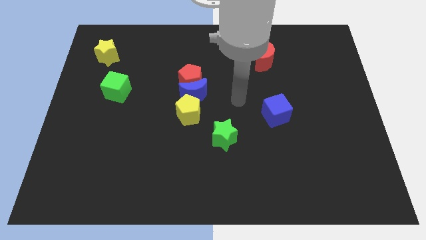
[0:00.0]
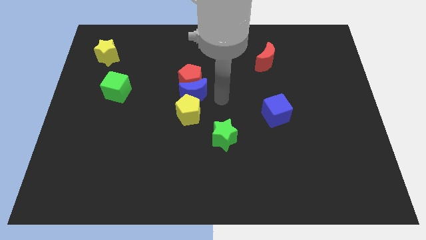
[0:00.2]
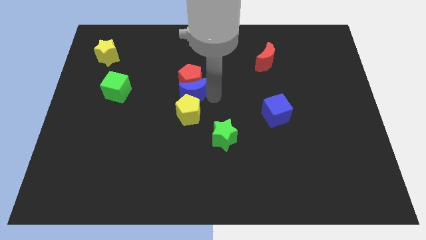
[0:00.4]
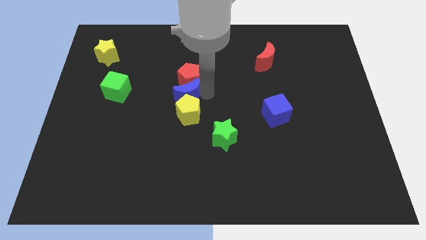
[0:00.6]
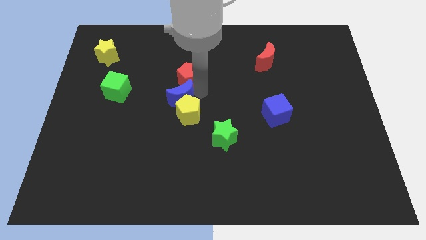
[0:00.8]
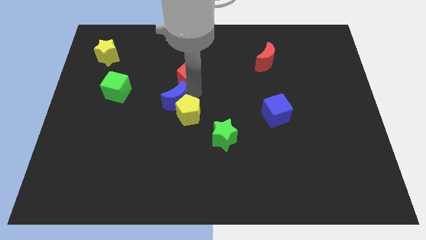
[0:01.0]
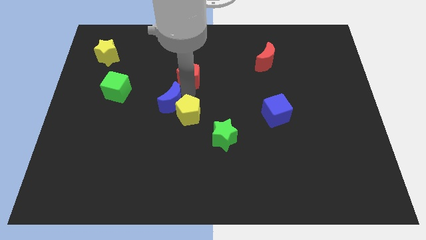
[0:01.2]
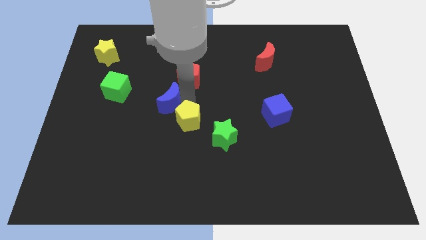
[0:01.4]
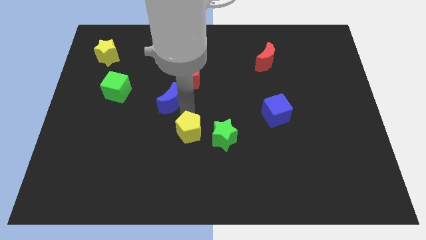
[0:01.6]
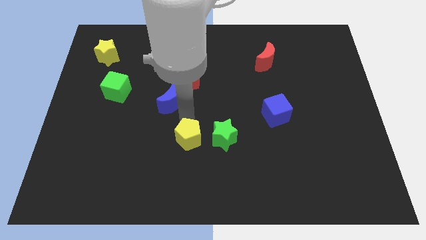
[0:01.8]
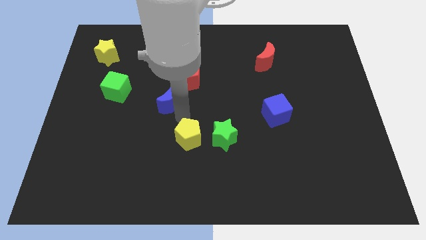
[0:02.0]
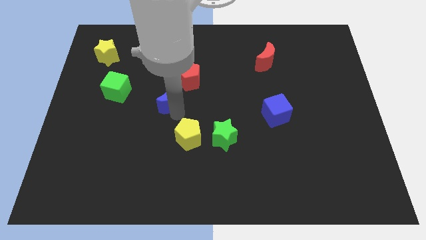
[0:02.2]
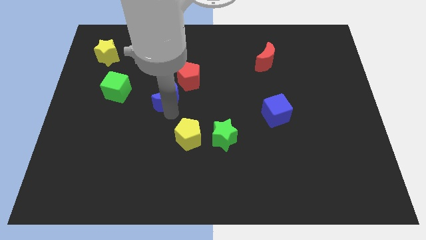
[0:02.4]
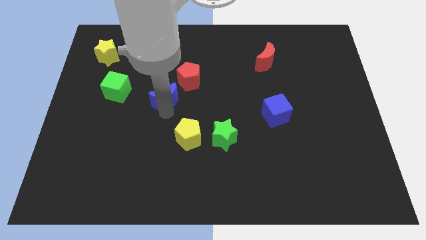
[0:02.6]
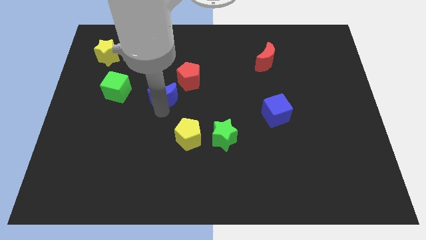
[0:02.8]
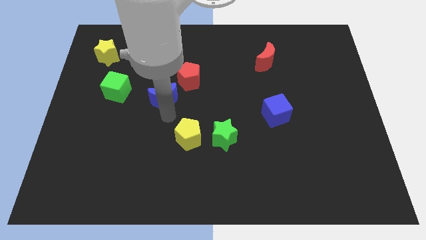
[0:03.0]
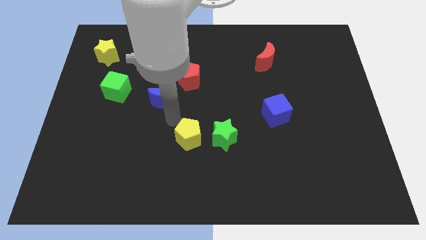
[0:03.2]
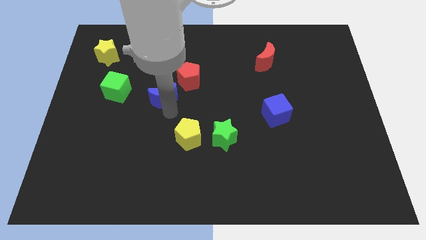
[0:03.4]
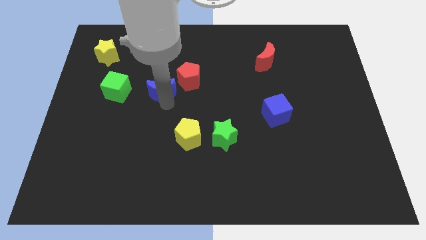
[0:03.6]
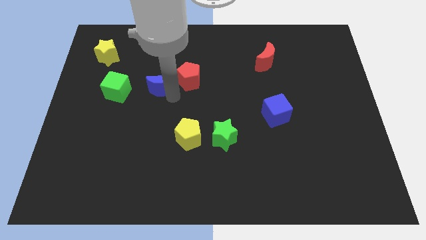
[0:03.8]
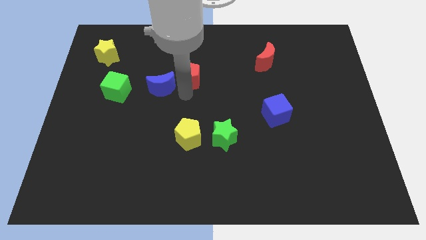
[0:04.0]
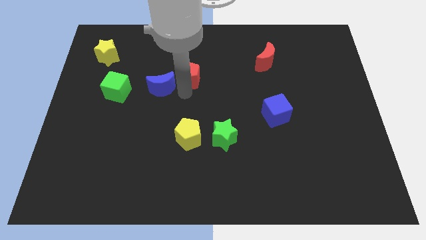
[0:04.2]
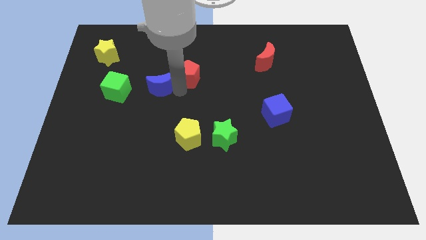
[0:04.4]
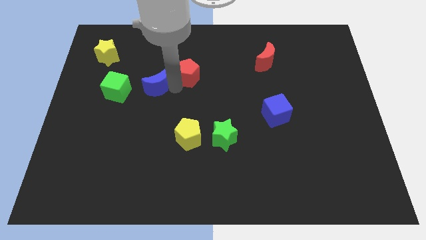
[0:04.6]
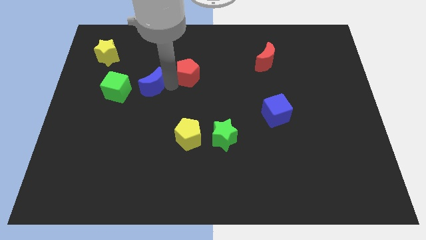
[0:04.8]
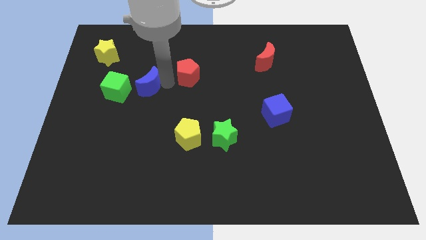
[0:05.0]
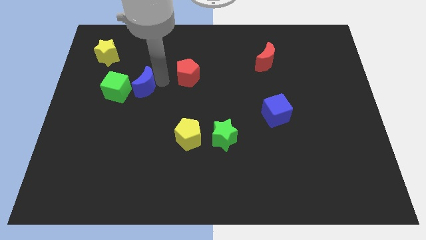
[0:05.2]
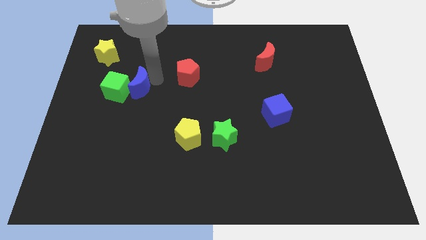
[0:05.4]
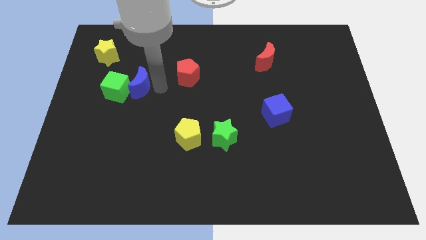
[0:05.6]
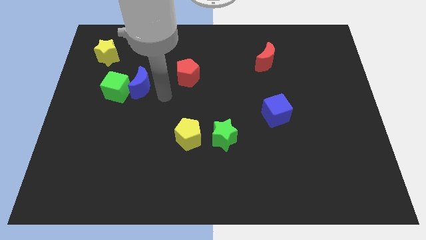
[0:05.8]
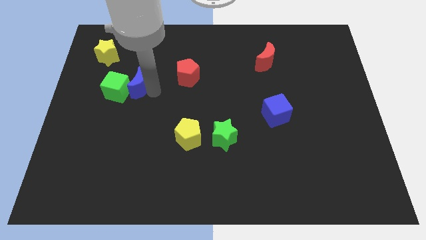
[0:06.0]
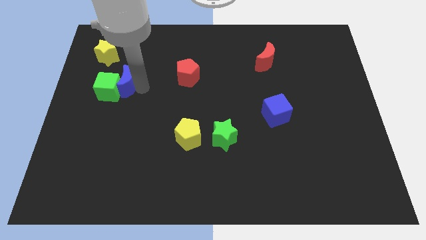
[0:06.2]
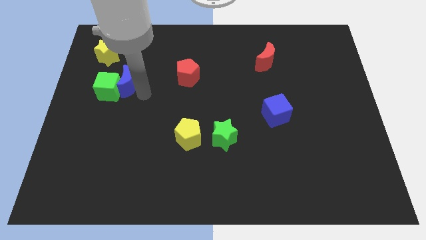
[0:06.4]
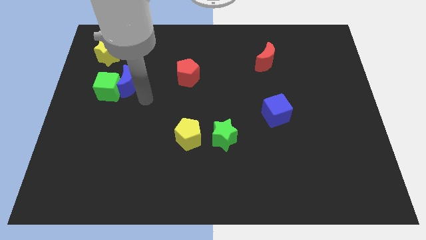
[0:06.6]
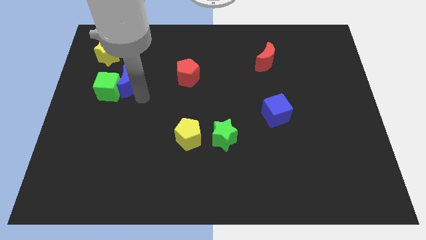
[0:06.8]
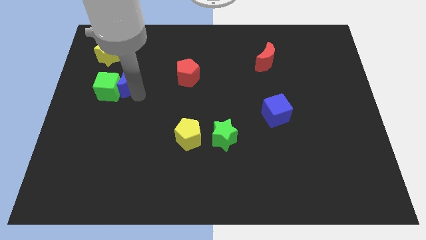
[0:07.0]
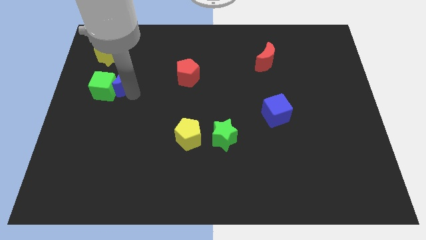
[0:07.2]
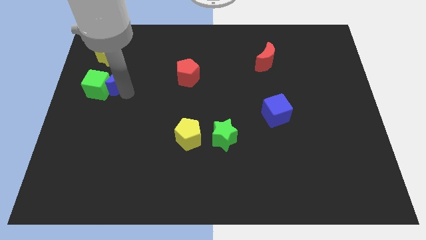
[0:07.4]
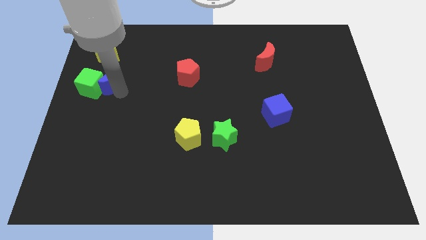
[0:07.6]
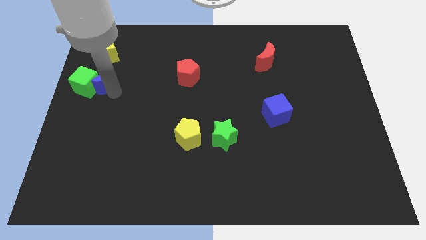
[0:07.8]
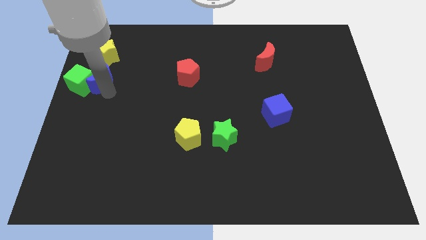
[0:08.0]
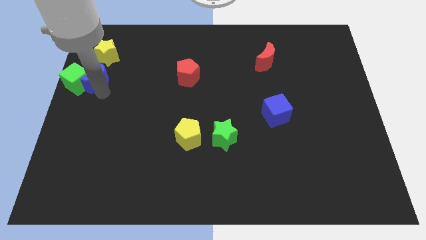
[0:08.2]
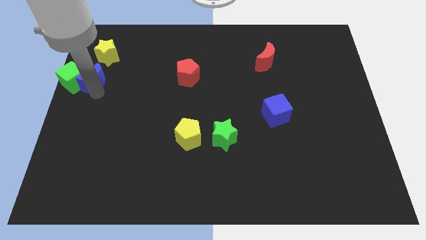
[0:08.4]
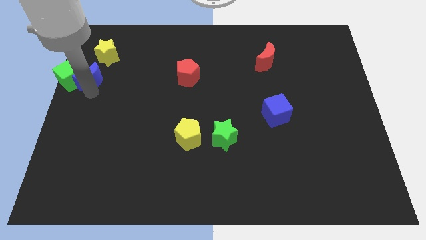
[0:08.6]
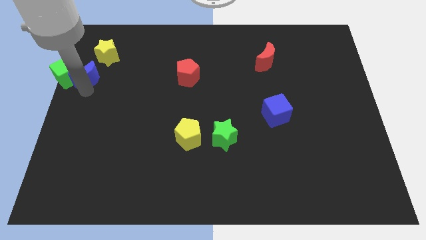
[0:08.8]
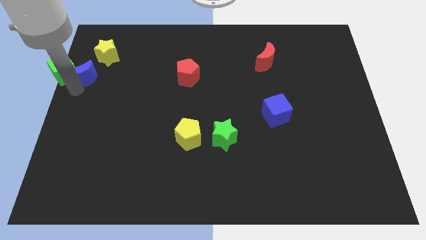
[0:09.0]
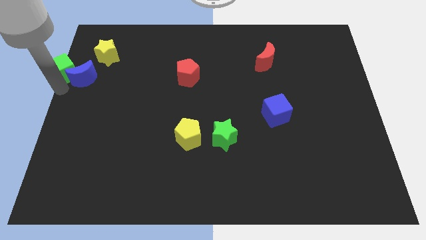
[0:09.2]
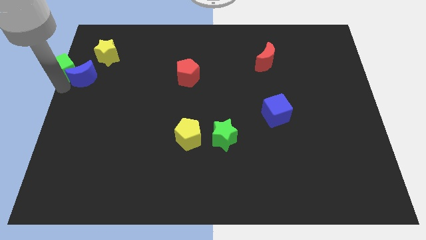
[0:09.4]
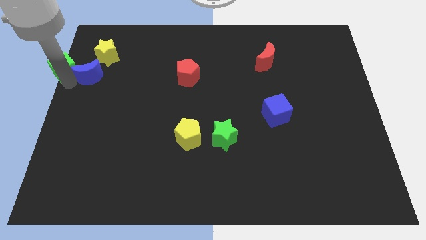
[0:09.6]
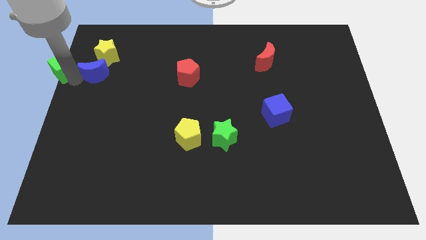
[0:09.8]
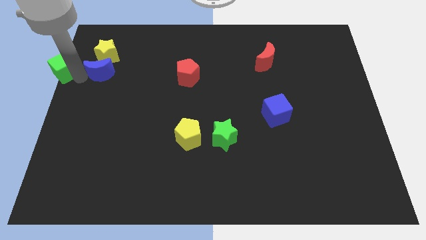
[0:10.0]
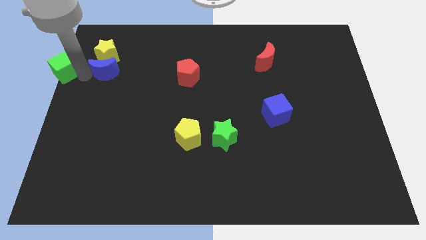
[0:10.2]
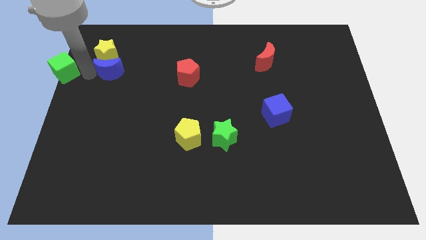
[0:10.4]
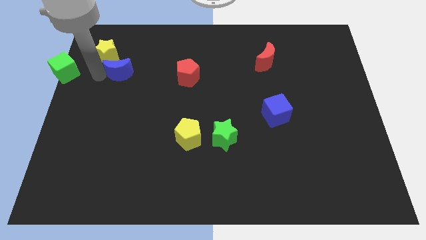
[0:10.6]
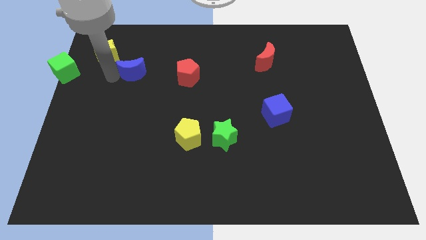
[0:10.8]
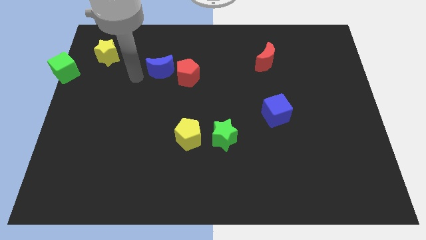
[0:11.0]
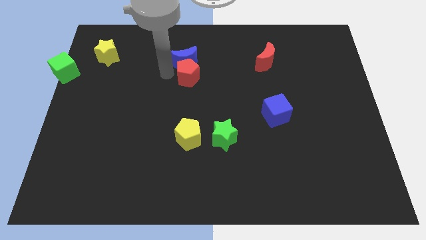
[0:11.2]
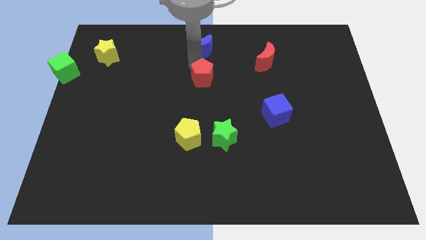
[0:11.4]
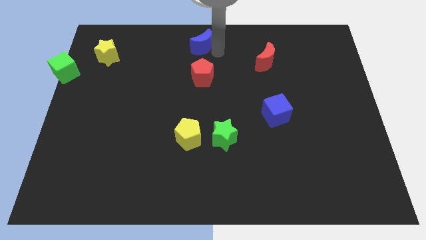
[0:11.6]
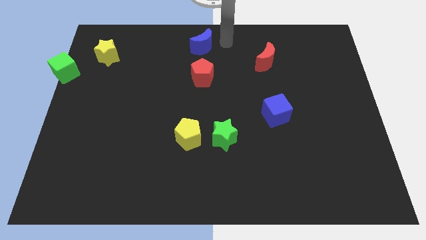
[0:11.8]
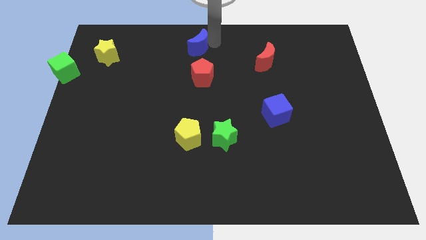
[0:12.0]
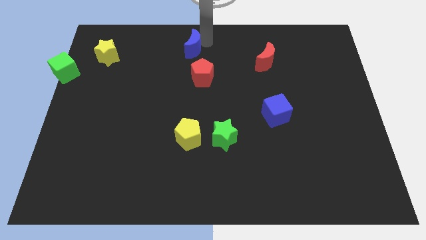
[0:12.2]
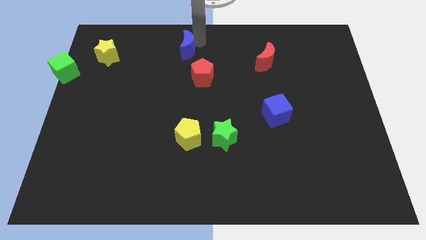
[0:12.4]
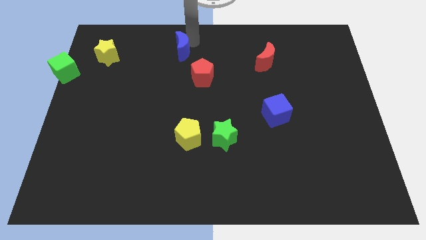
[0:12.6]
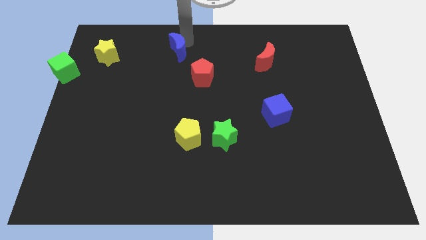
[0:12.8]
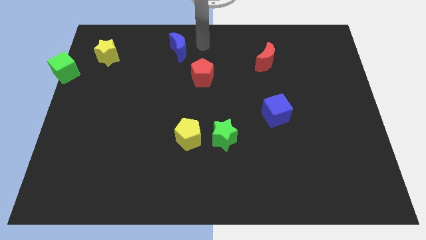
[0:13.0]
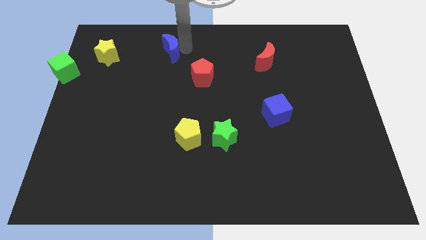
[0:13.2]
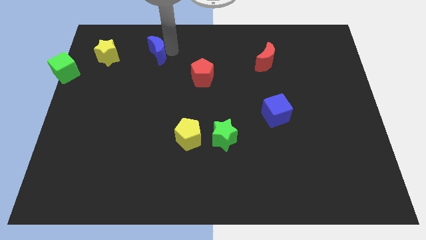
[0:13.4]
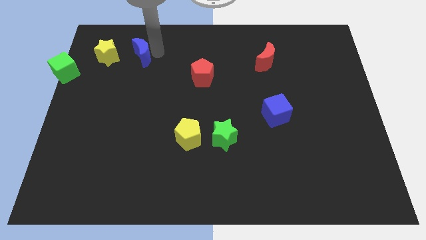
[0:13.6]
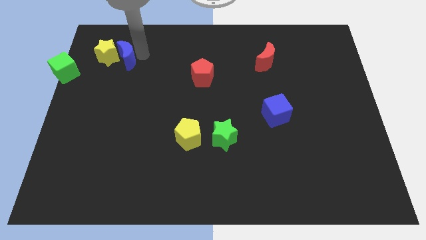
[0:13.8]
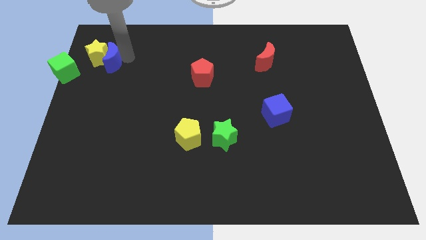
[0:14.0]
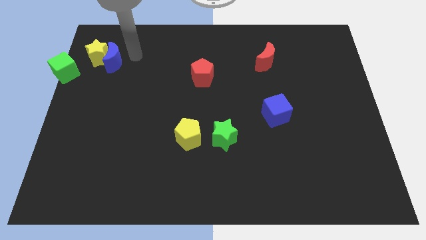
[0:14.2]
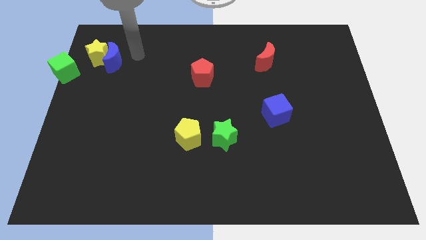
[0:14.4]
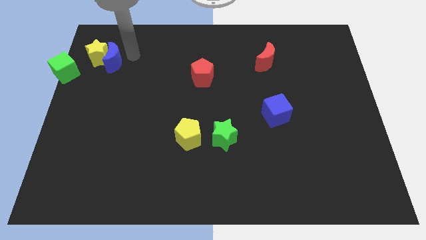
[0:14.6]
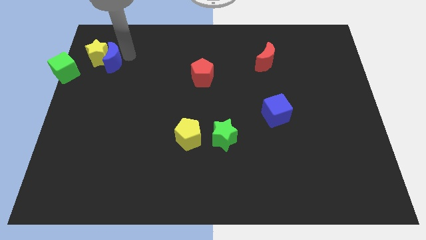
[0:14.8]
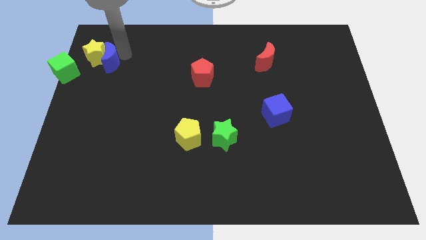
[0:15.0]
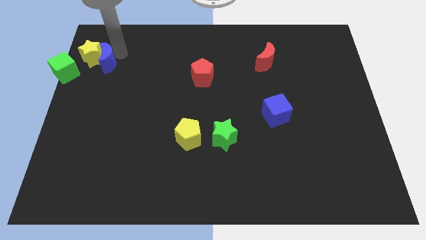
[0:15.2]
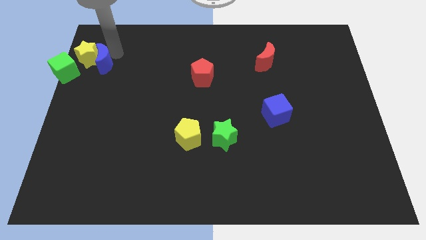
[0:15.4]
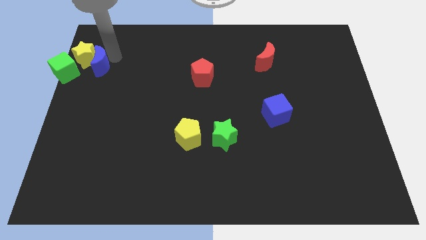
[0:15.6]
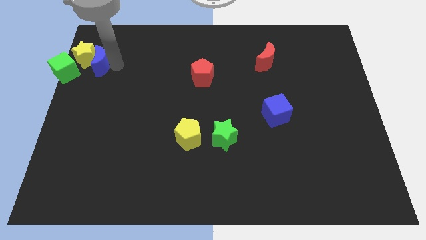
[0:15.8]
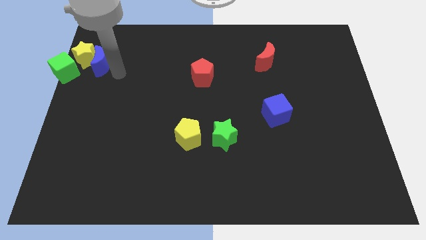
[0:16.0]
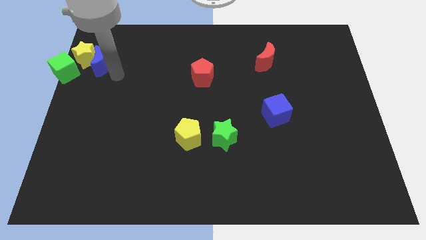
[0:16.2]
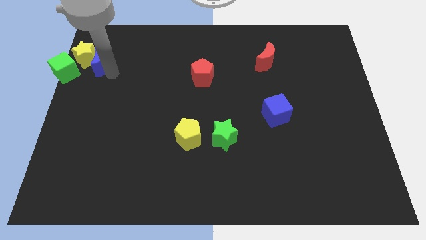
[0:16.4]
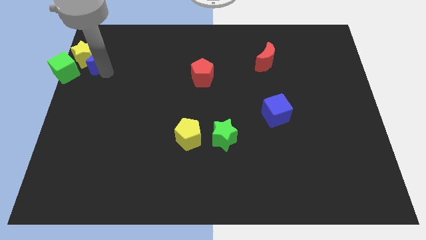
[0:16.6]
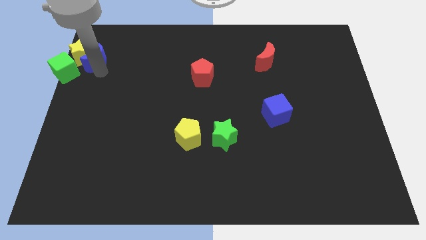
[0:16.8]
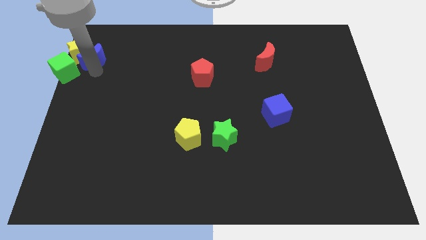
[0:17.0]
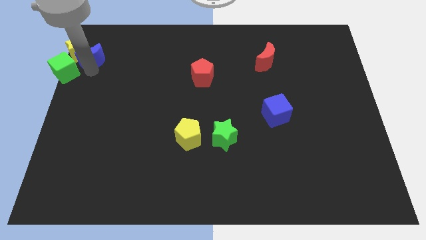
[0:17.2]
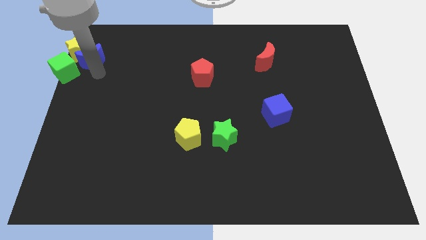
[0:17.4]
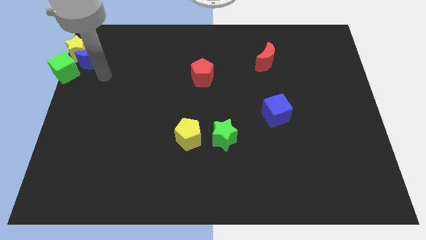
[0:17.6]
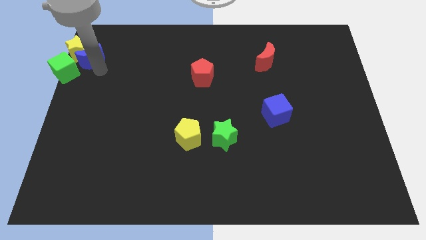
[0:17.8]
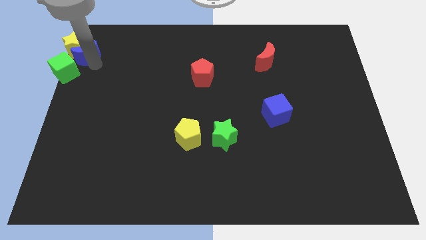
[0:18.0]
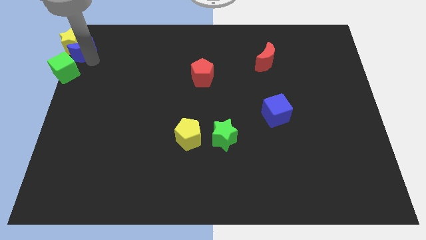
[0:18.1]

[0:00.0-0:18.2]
push the blue moon to the upper left corner
